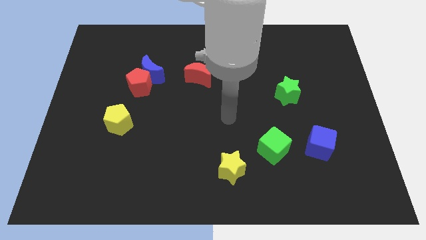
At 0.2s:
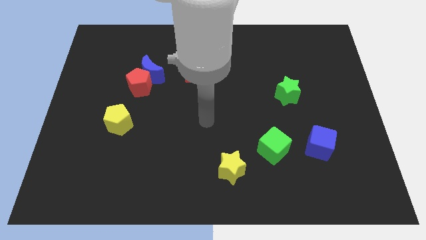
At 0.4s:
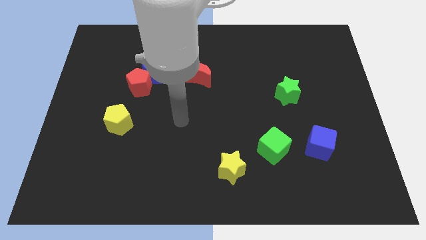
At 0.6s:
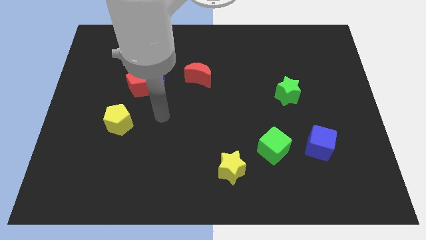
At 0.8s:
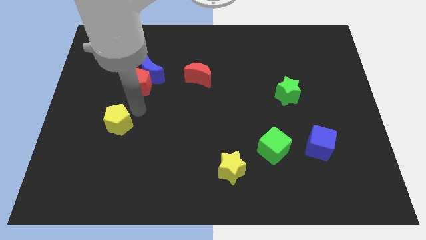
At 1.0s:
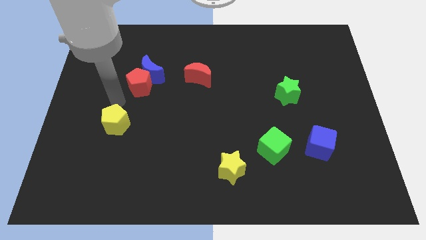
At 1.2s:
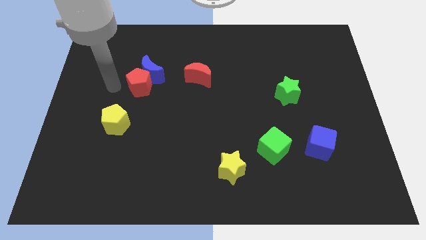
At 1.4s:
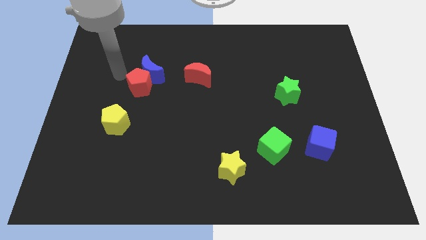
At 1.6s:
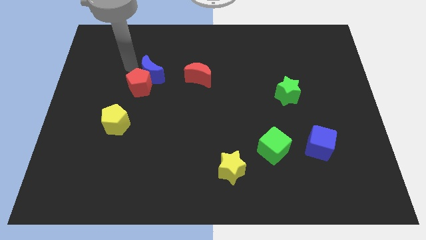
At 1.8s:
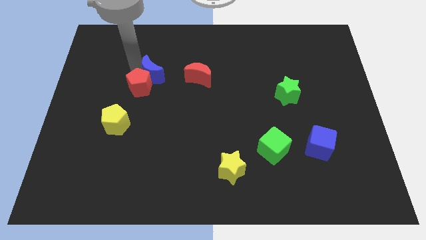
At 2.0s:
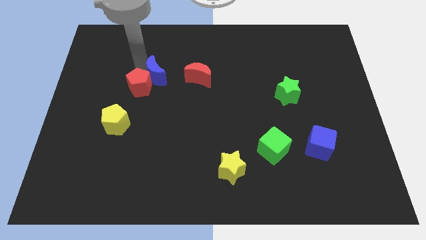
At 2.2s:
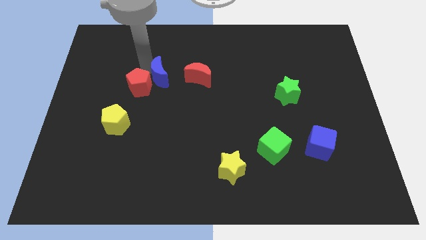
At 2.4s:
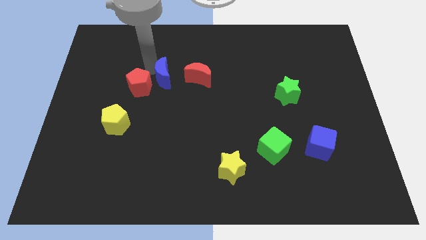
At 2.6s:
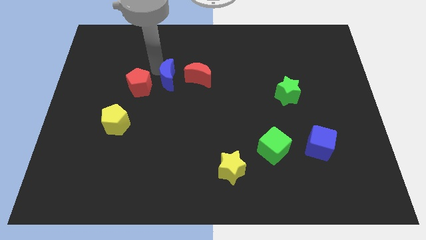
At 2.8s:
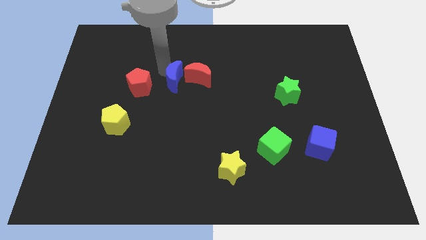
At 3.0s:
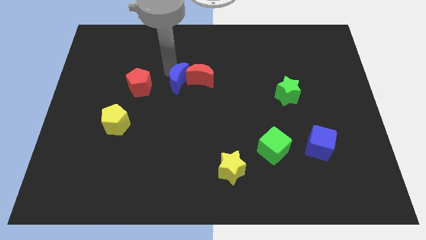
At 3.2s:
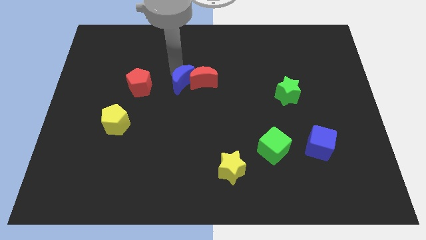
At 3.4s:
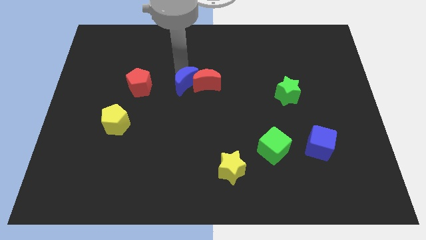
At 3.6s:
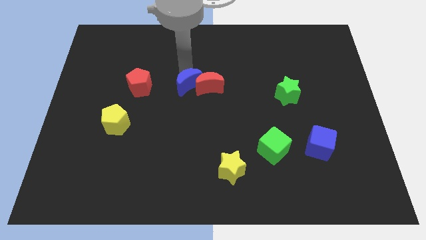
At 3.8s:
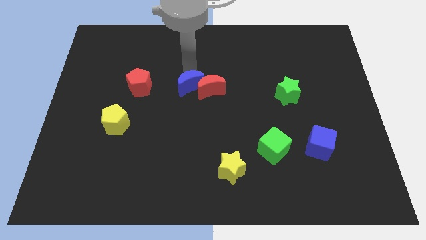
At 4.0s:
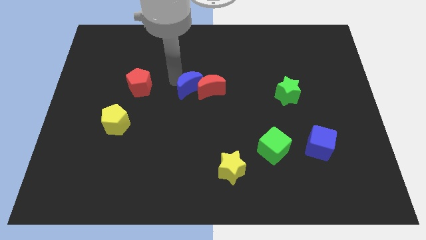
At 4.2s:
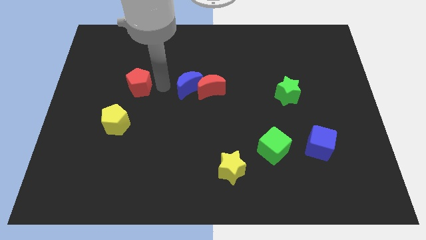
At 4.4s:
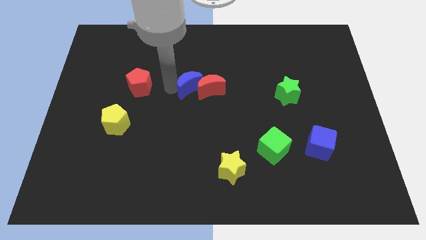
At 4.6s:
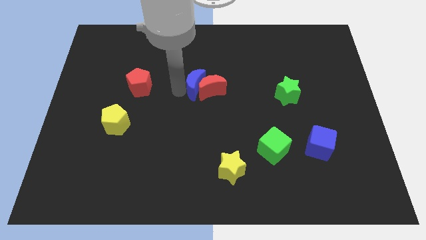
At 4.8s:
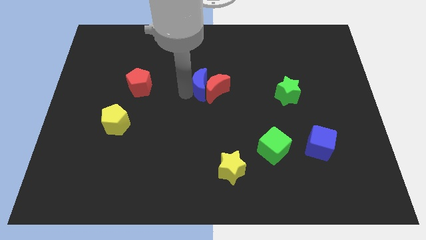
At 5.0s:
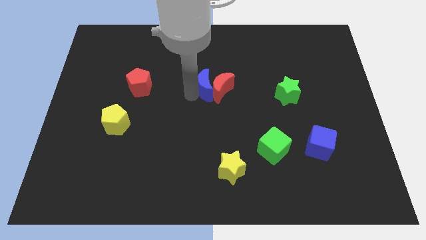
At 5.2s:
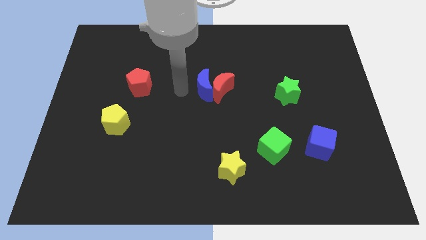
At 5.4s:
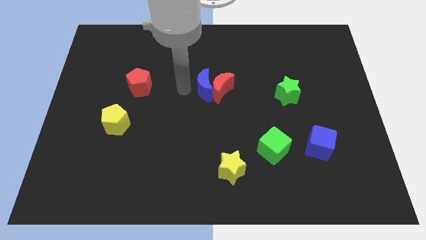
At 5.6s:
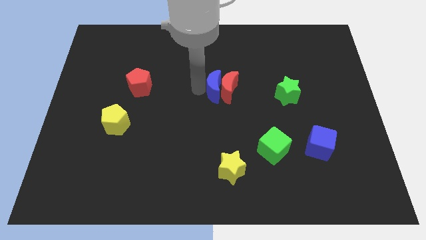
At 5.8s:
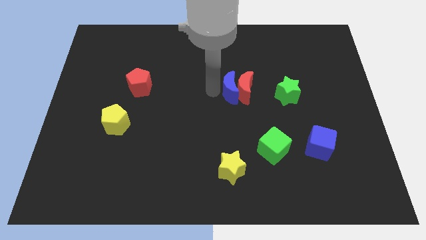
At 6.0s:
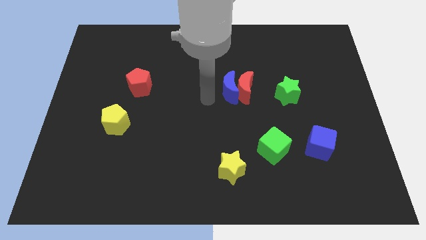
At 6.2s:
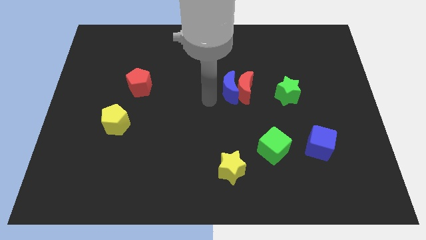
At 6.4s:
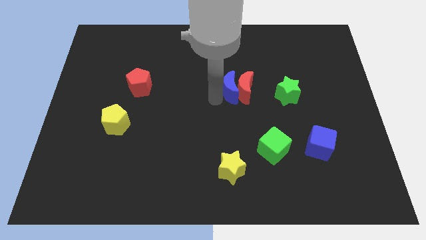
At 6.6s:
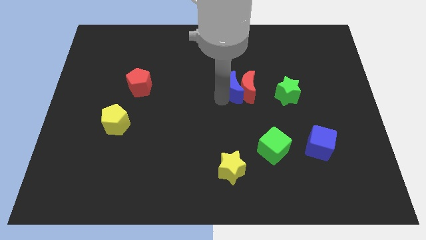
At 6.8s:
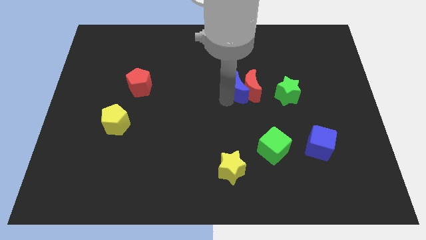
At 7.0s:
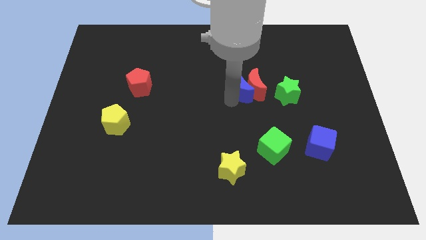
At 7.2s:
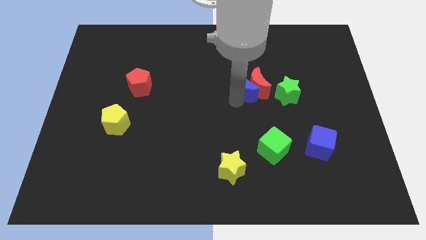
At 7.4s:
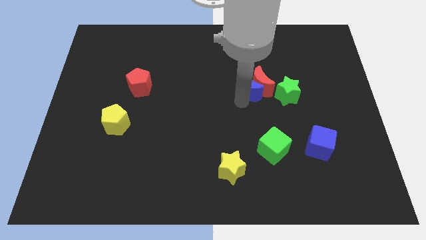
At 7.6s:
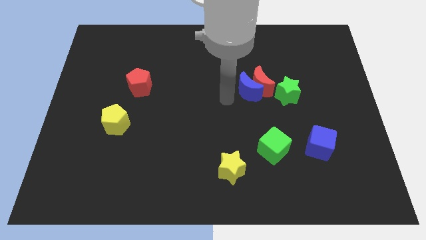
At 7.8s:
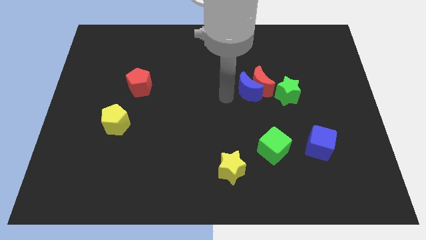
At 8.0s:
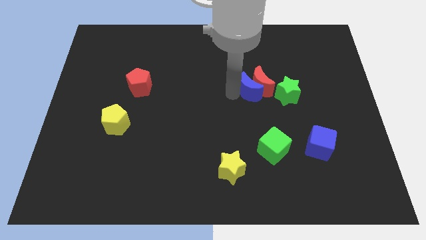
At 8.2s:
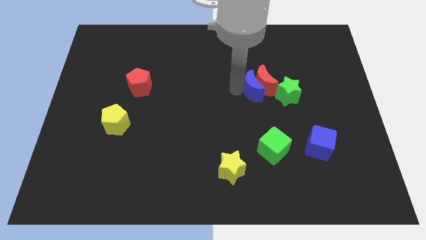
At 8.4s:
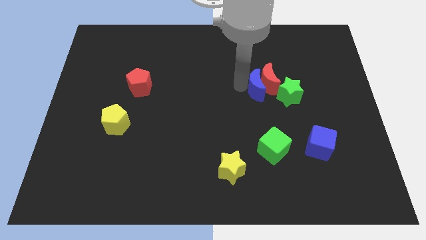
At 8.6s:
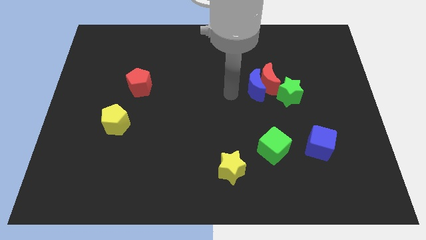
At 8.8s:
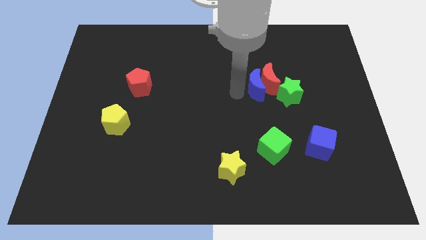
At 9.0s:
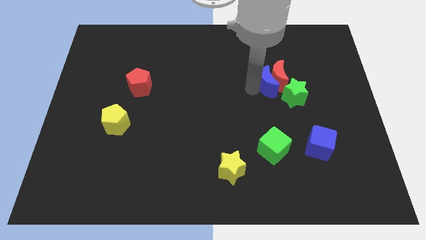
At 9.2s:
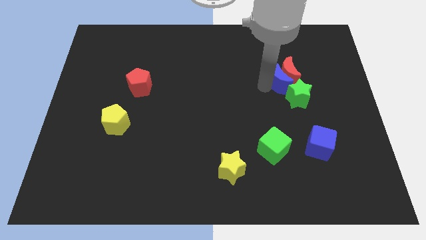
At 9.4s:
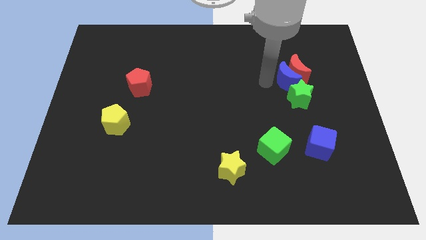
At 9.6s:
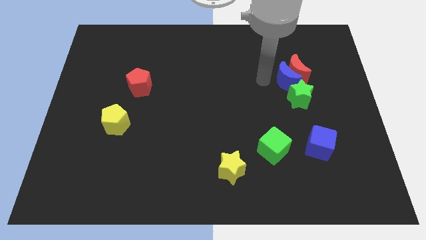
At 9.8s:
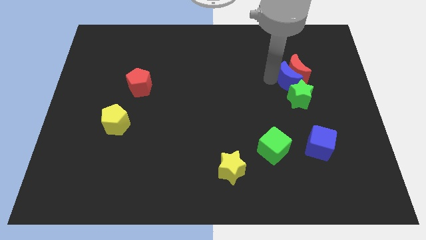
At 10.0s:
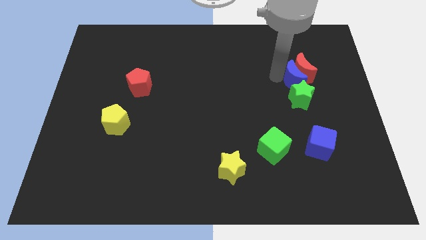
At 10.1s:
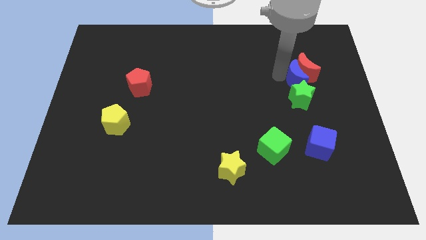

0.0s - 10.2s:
slide the blue moon diagonally up and to the right of the green star

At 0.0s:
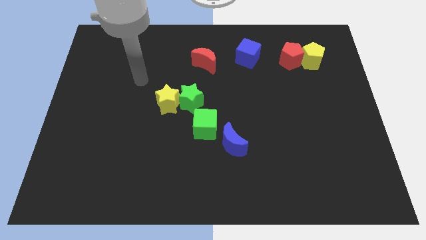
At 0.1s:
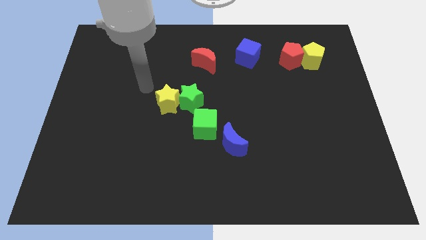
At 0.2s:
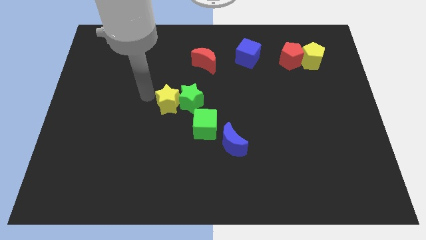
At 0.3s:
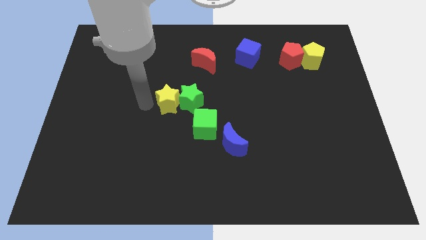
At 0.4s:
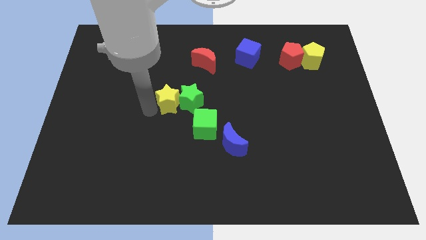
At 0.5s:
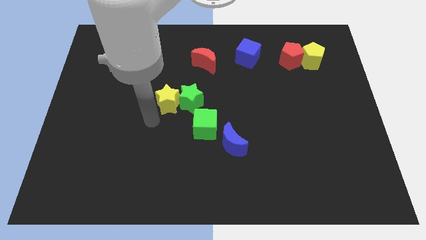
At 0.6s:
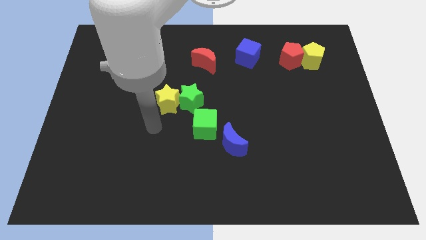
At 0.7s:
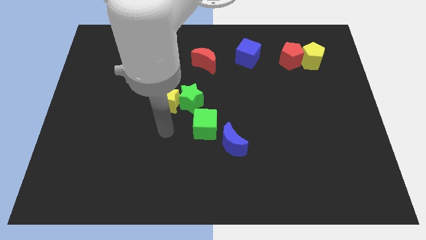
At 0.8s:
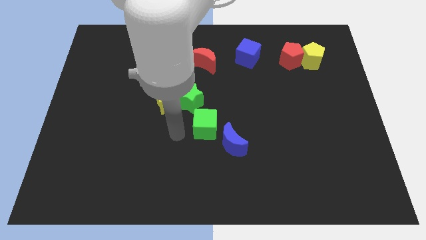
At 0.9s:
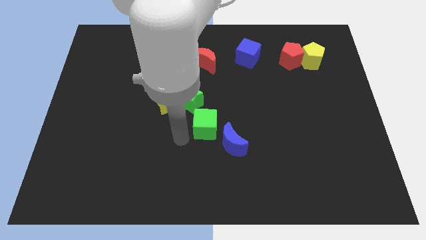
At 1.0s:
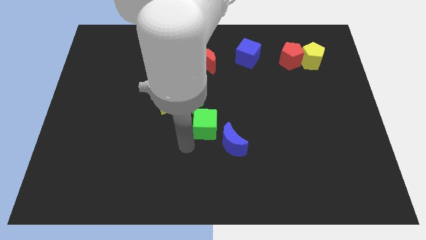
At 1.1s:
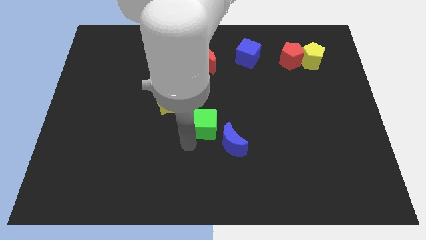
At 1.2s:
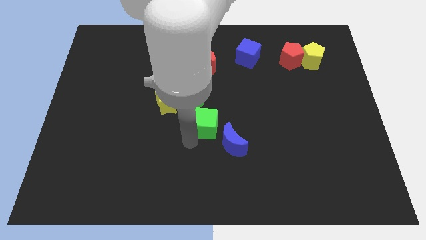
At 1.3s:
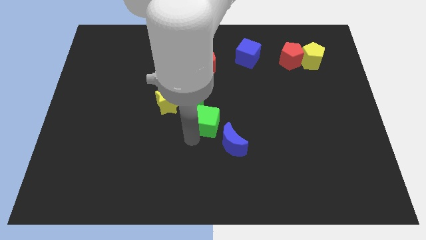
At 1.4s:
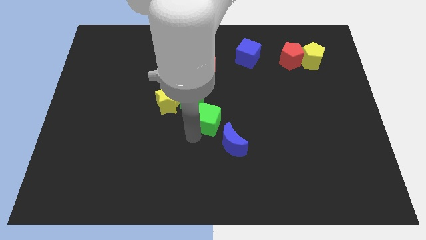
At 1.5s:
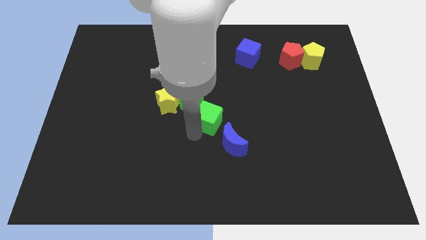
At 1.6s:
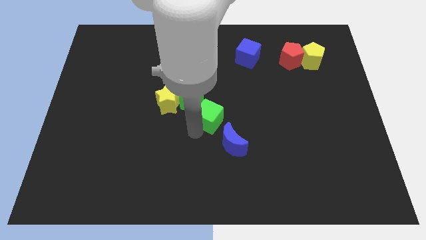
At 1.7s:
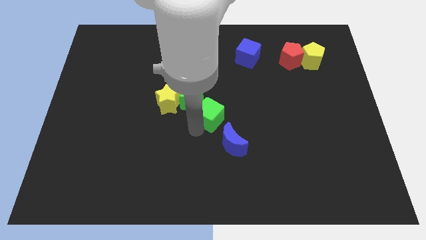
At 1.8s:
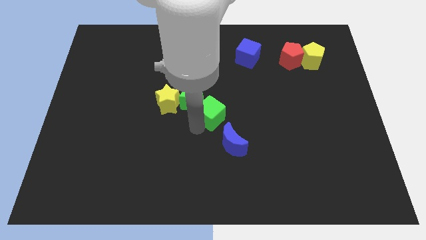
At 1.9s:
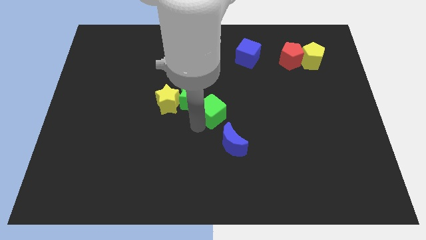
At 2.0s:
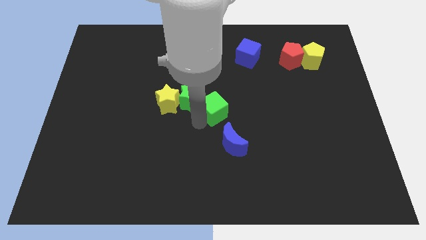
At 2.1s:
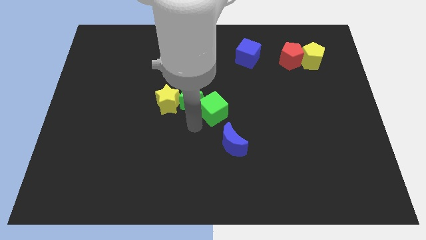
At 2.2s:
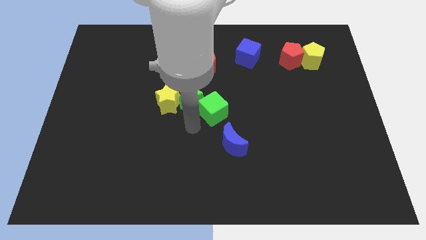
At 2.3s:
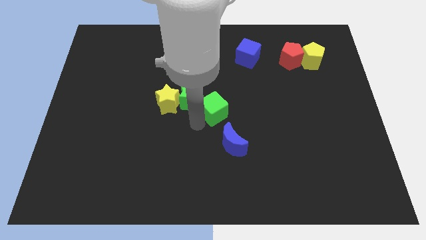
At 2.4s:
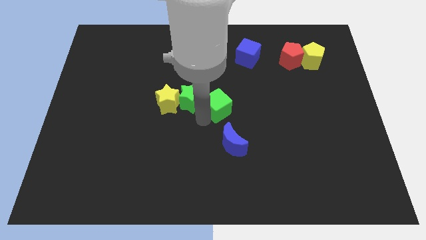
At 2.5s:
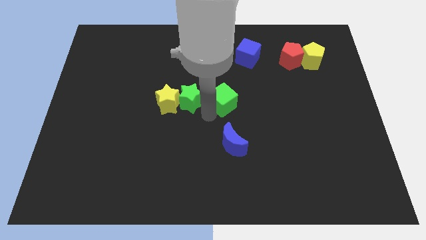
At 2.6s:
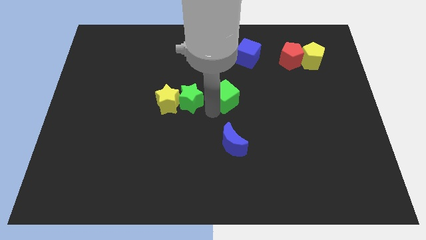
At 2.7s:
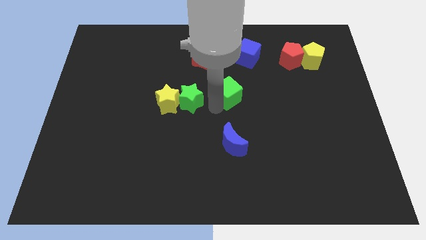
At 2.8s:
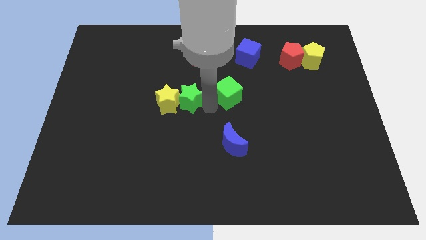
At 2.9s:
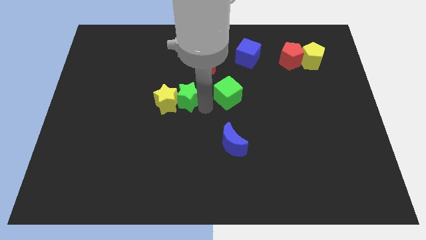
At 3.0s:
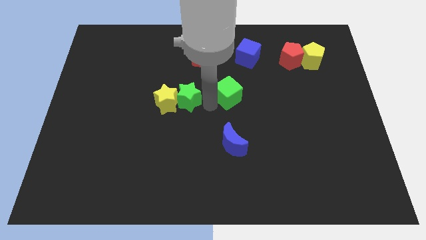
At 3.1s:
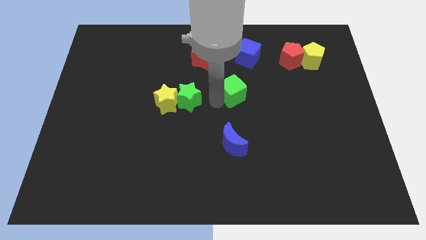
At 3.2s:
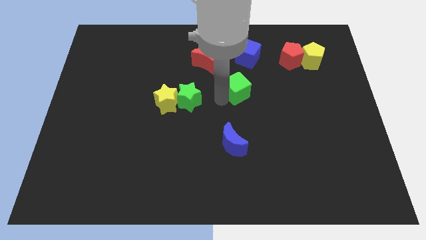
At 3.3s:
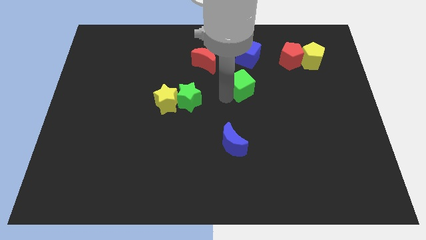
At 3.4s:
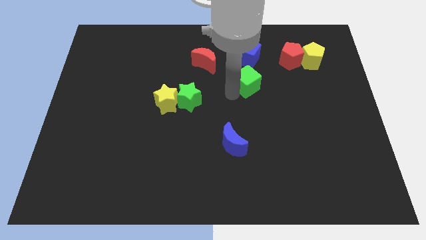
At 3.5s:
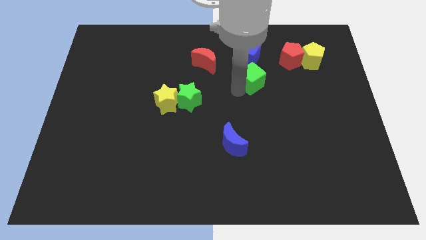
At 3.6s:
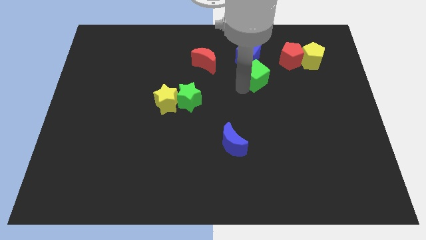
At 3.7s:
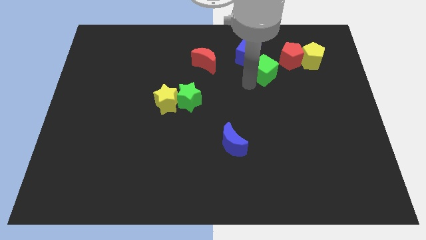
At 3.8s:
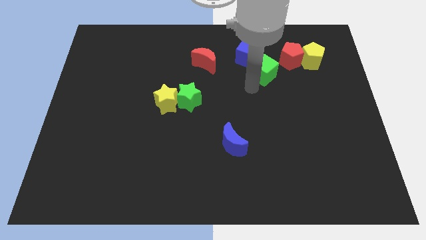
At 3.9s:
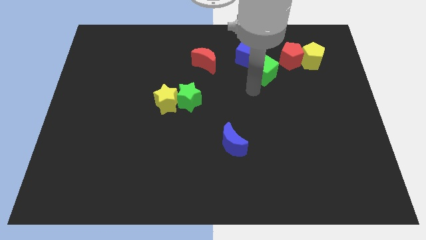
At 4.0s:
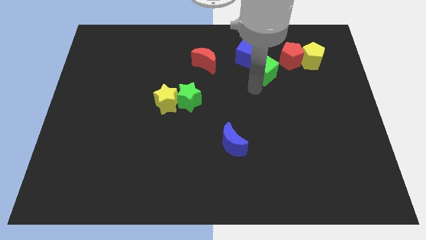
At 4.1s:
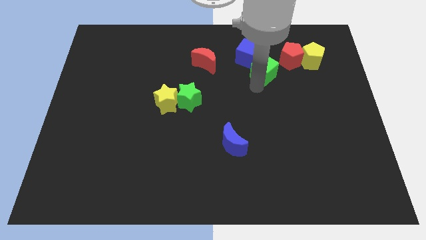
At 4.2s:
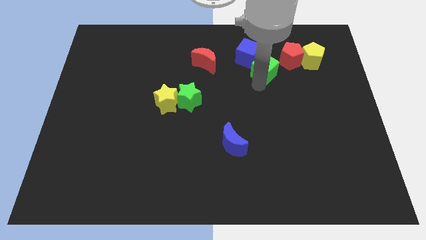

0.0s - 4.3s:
put the green cube left of the yellow pentagon
